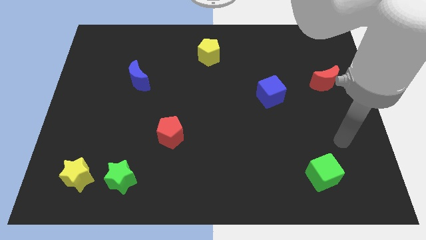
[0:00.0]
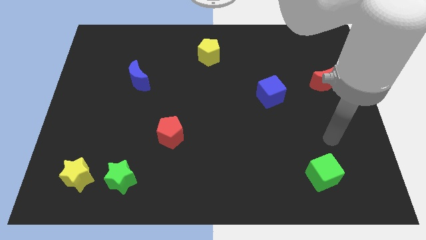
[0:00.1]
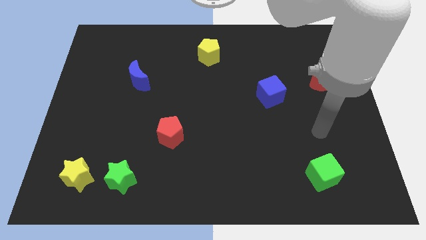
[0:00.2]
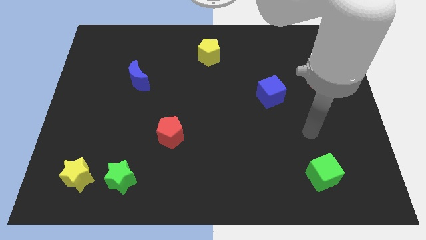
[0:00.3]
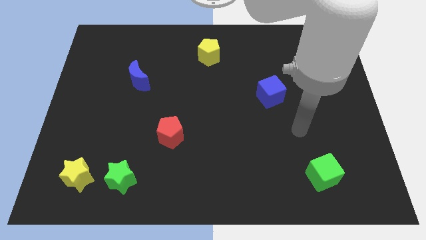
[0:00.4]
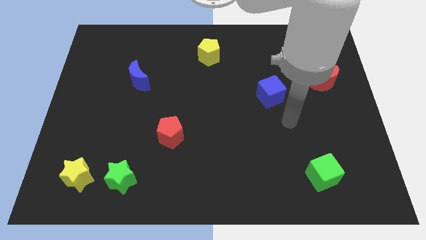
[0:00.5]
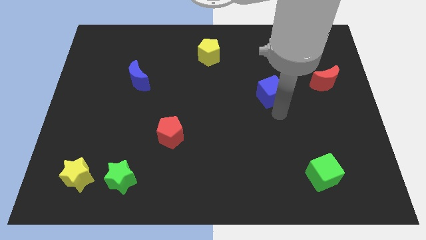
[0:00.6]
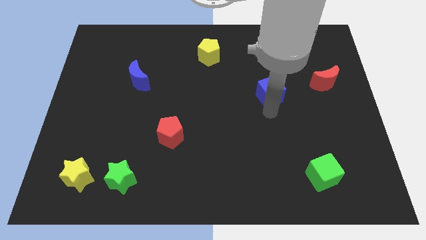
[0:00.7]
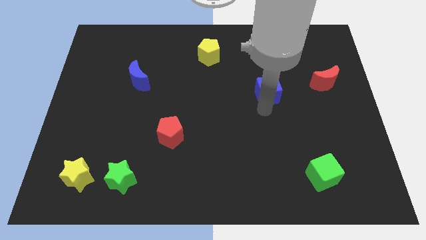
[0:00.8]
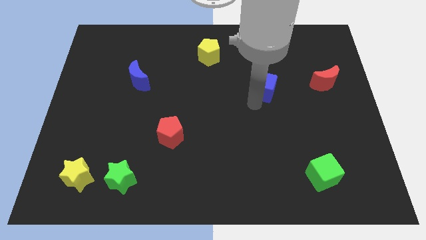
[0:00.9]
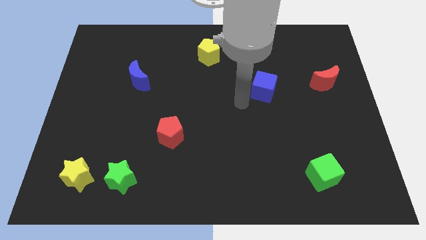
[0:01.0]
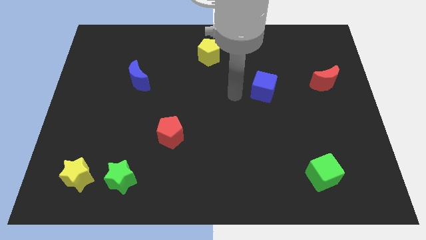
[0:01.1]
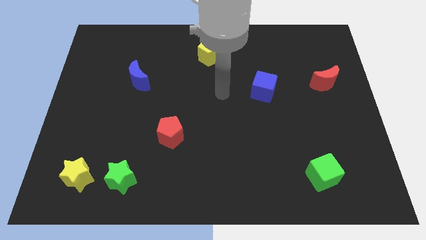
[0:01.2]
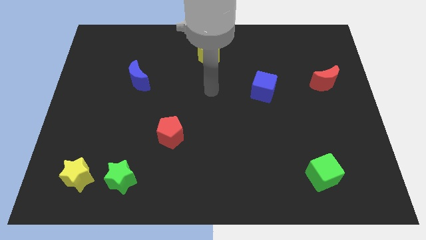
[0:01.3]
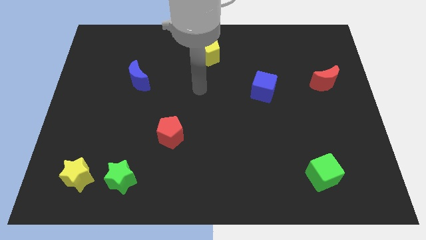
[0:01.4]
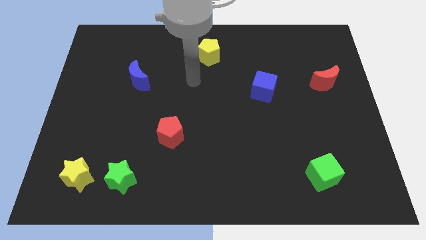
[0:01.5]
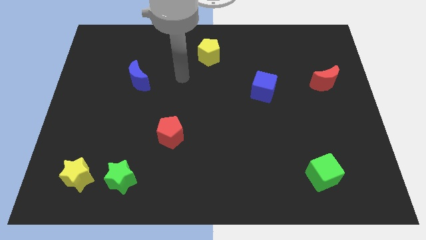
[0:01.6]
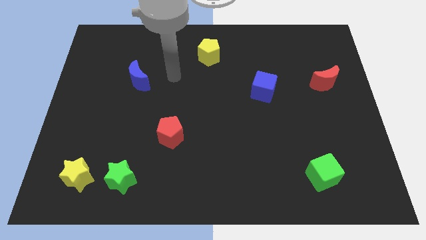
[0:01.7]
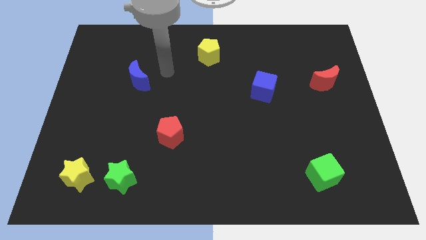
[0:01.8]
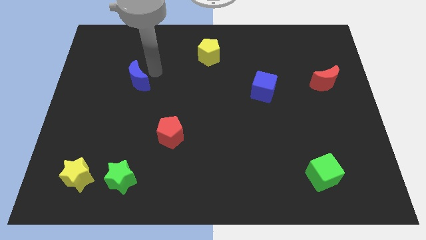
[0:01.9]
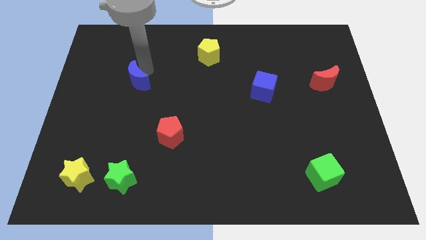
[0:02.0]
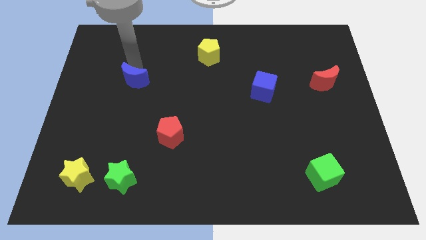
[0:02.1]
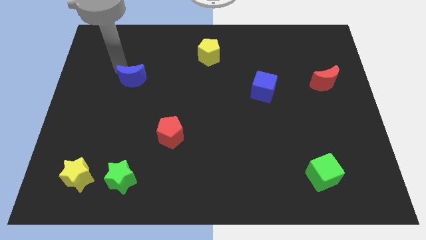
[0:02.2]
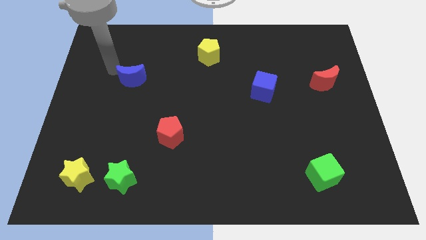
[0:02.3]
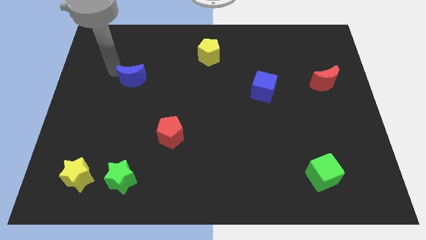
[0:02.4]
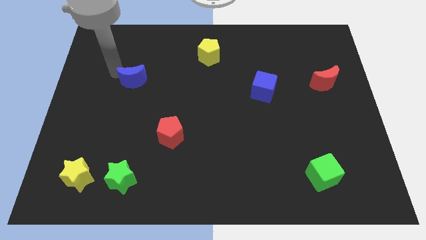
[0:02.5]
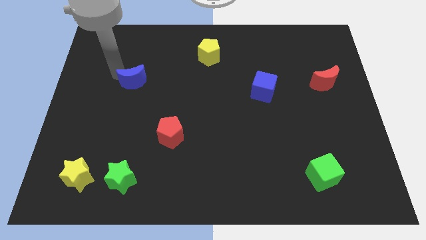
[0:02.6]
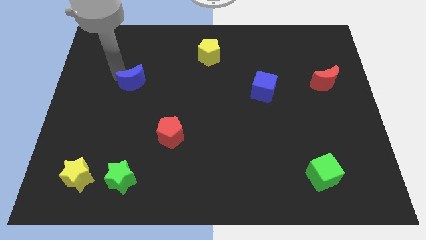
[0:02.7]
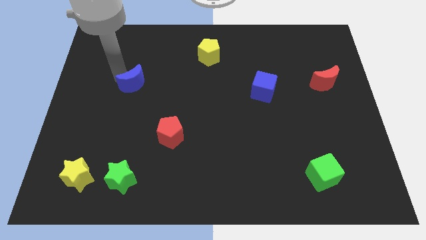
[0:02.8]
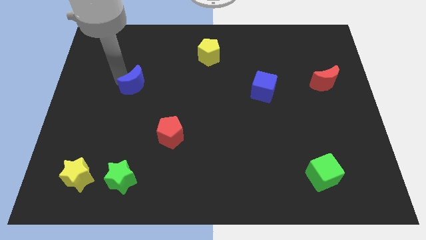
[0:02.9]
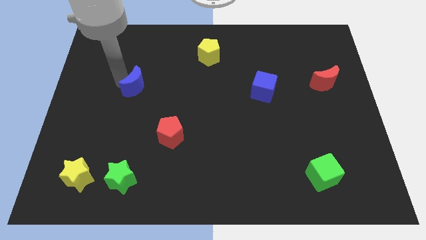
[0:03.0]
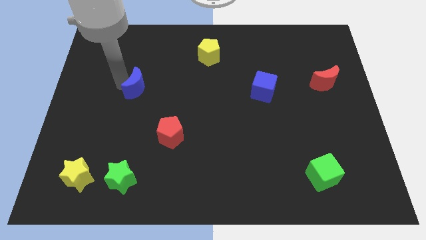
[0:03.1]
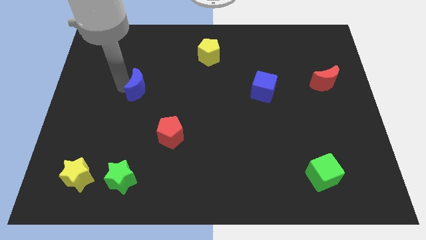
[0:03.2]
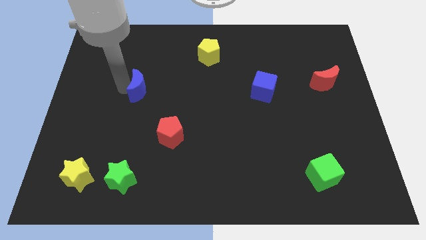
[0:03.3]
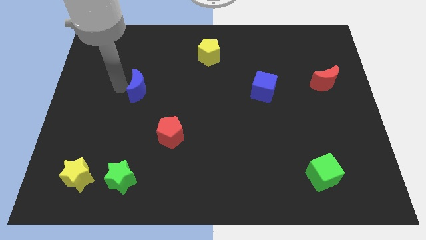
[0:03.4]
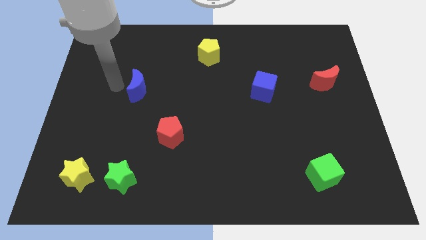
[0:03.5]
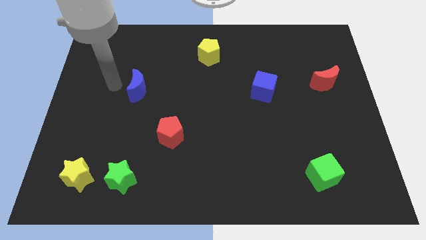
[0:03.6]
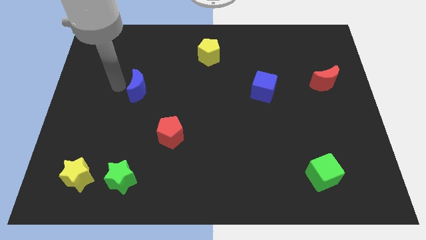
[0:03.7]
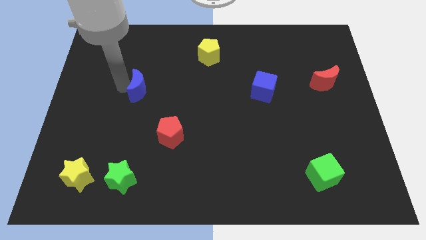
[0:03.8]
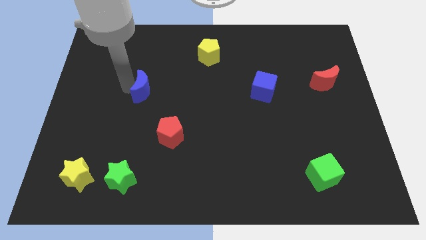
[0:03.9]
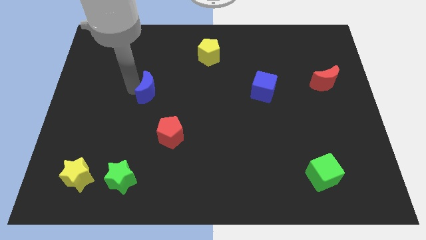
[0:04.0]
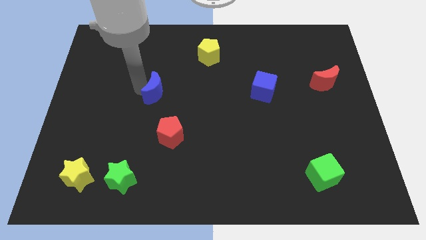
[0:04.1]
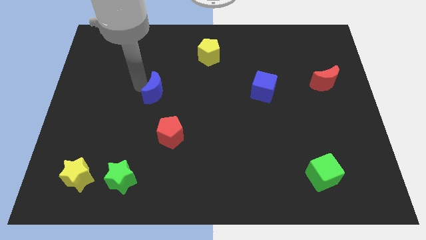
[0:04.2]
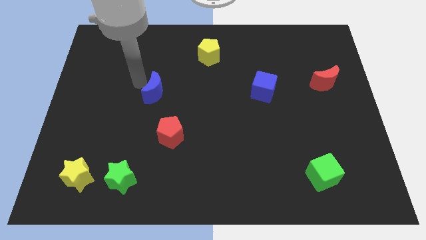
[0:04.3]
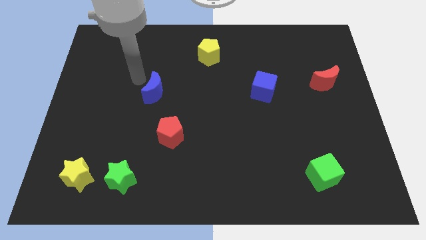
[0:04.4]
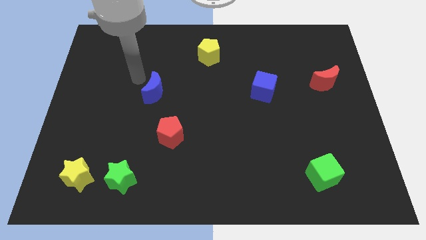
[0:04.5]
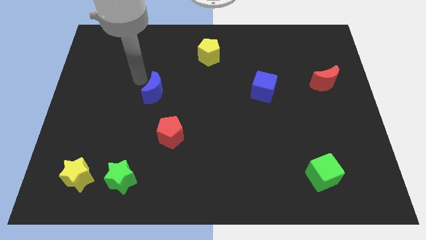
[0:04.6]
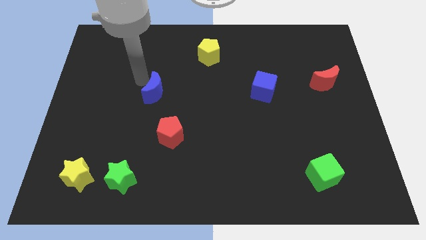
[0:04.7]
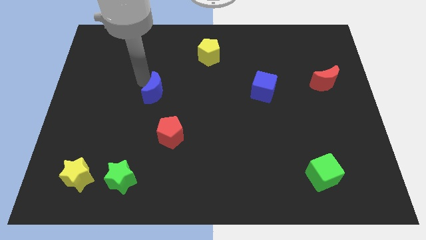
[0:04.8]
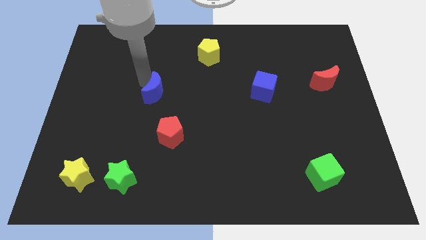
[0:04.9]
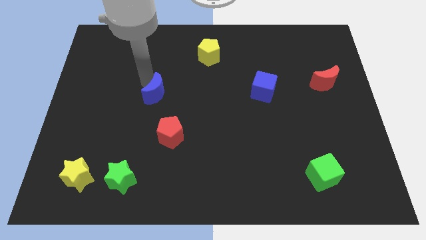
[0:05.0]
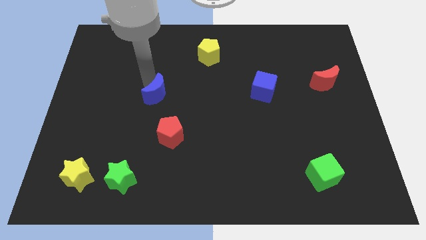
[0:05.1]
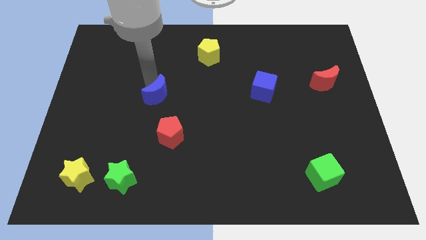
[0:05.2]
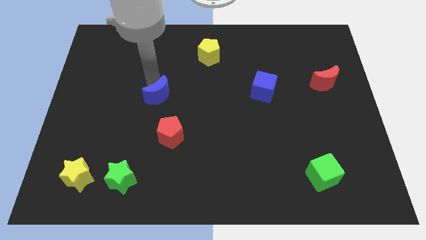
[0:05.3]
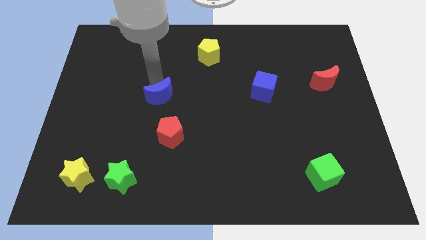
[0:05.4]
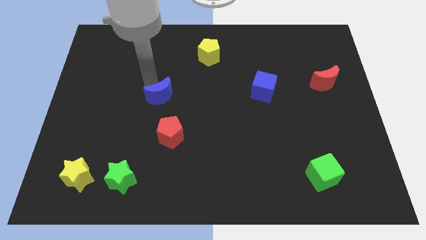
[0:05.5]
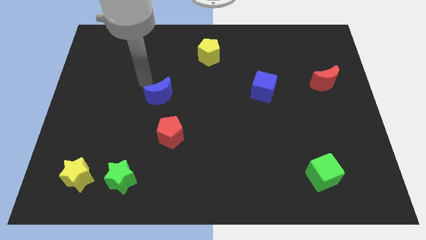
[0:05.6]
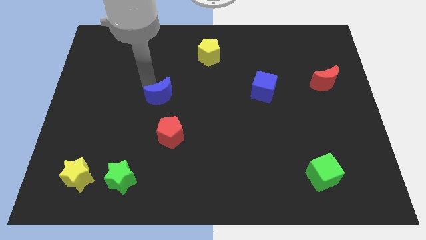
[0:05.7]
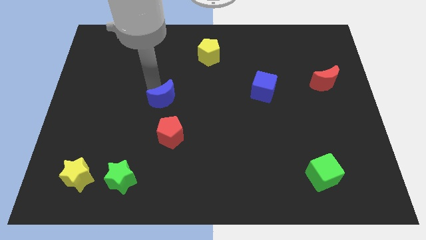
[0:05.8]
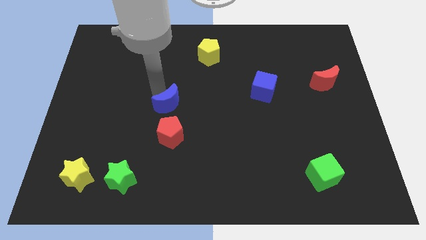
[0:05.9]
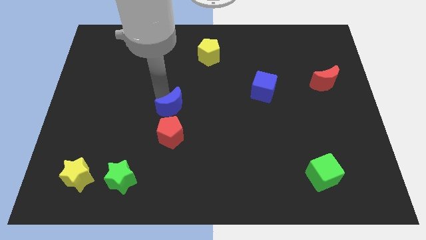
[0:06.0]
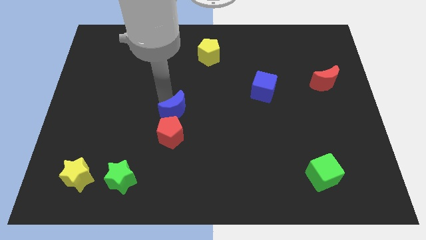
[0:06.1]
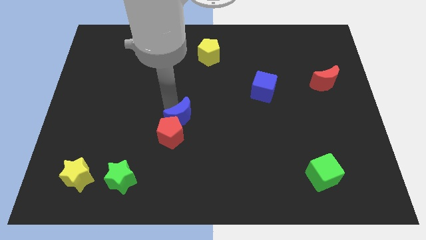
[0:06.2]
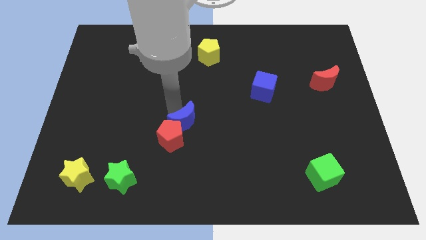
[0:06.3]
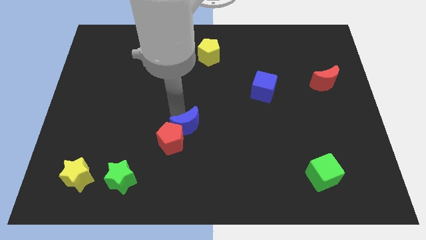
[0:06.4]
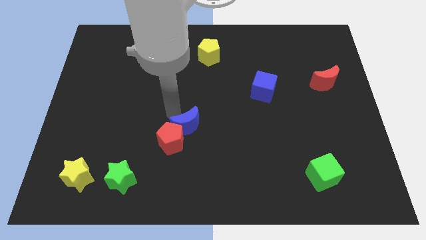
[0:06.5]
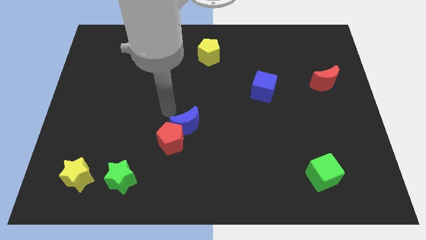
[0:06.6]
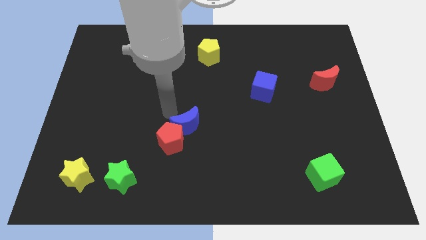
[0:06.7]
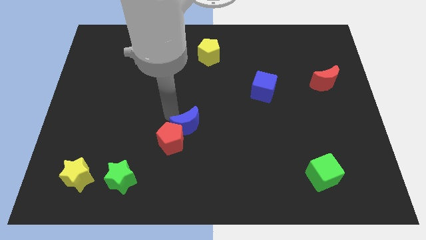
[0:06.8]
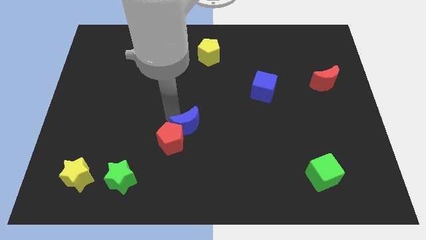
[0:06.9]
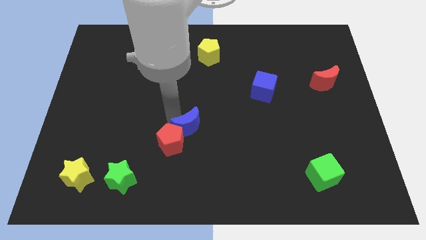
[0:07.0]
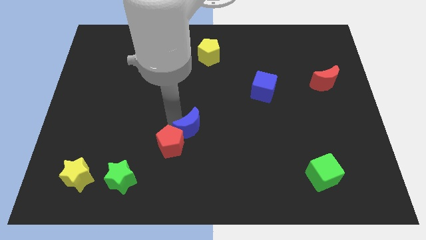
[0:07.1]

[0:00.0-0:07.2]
move the blue moon downwards and right diagonally
